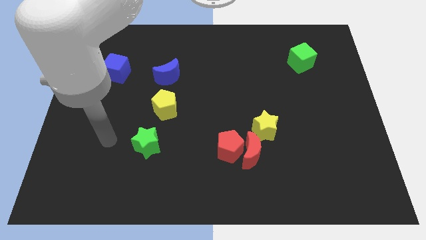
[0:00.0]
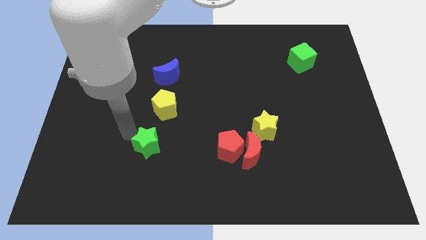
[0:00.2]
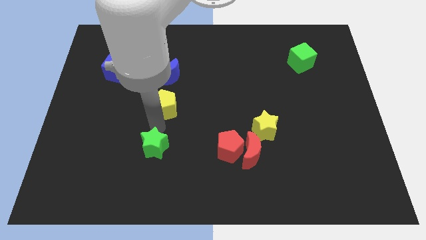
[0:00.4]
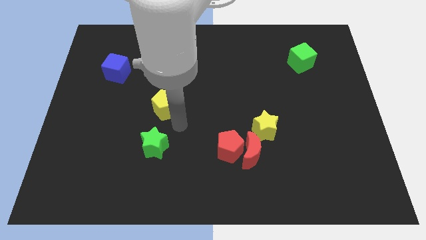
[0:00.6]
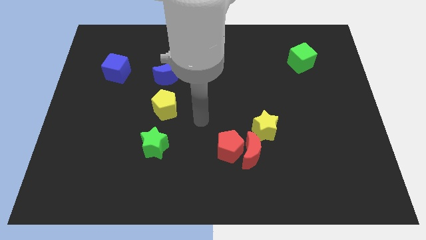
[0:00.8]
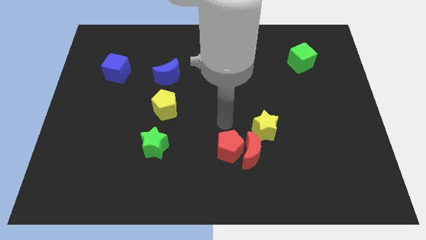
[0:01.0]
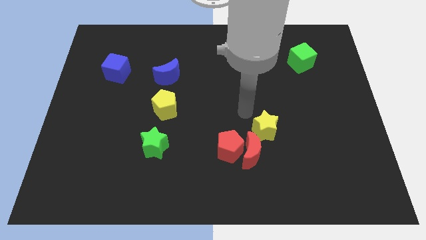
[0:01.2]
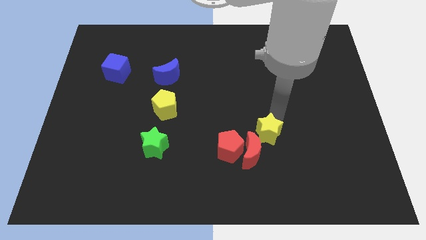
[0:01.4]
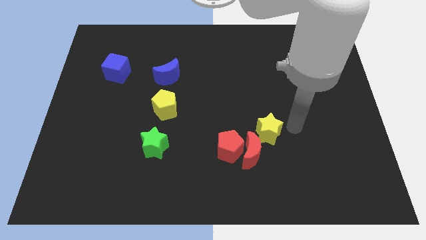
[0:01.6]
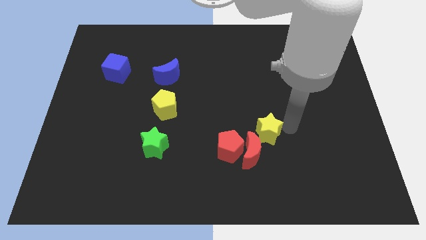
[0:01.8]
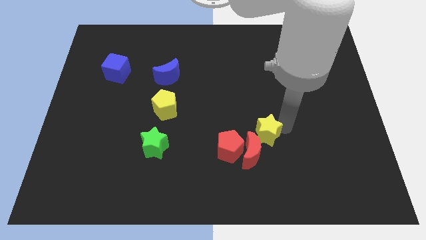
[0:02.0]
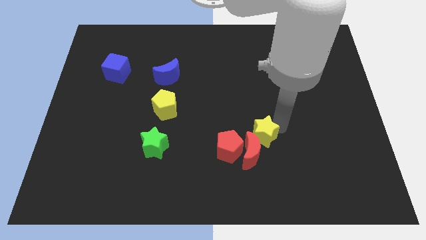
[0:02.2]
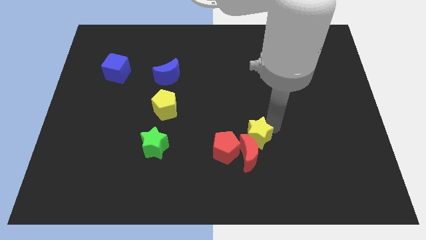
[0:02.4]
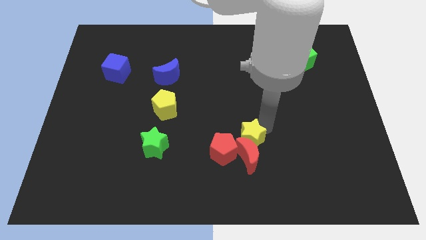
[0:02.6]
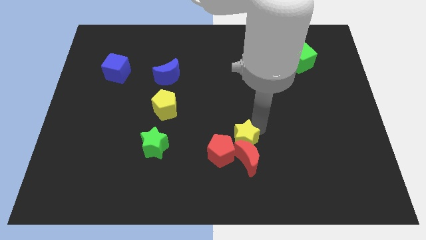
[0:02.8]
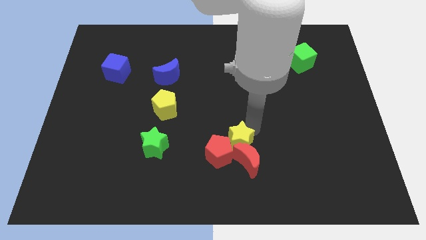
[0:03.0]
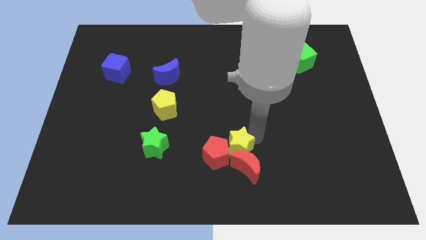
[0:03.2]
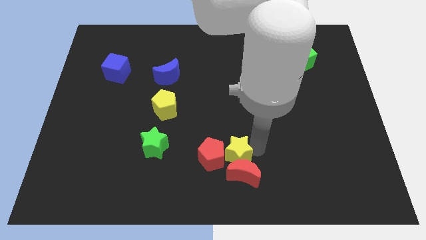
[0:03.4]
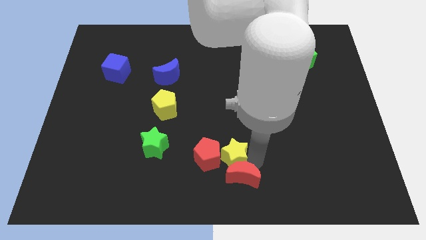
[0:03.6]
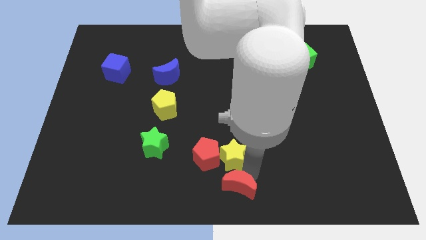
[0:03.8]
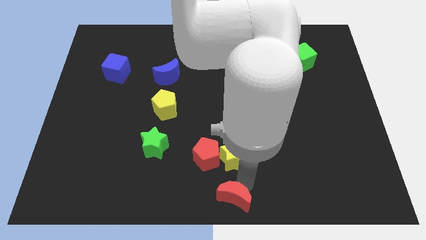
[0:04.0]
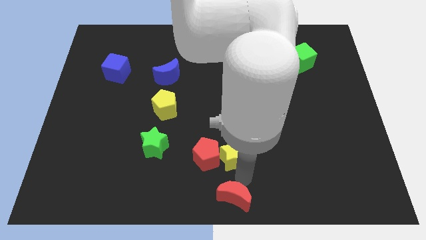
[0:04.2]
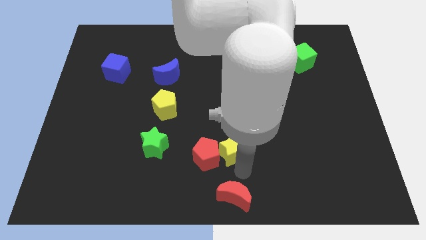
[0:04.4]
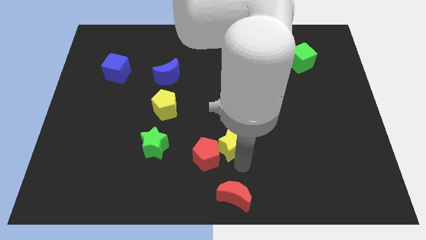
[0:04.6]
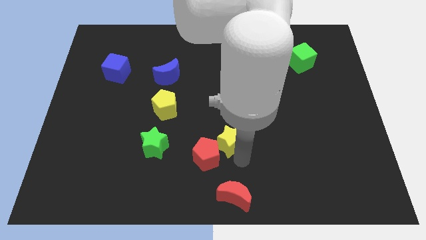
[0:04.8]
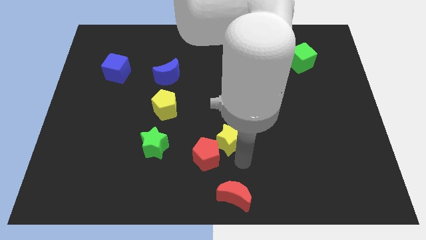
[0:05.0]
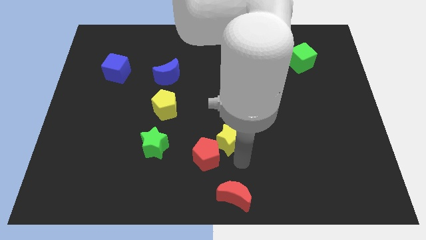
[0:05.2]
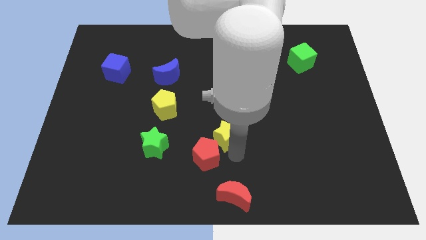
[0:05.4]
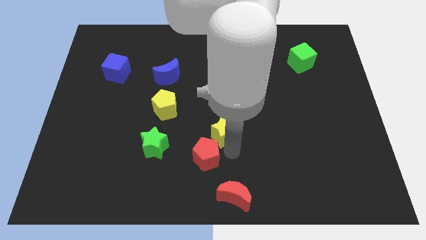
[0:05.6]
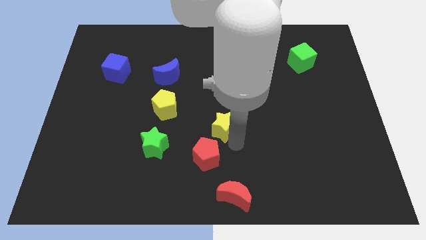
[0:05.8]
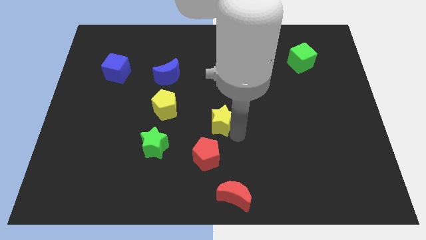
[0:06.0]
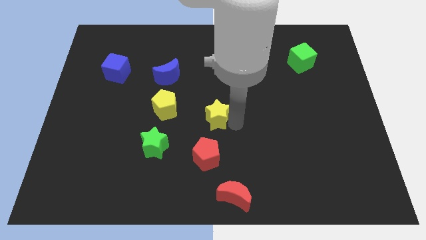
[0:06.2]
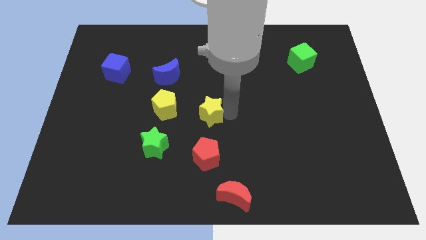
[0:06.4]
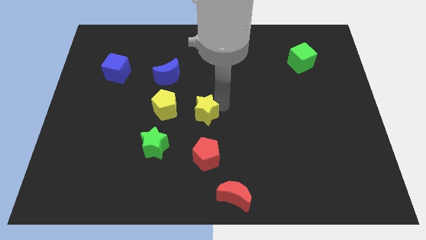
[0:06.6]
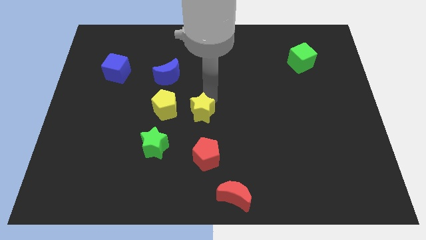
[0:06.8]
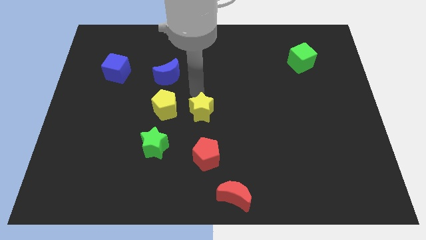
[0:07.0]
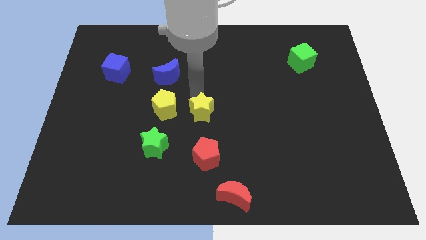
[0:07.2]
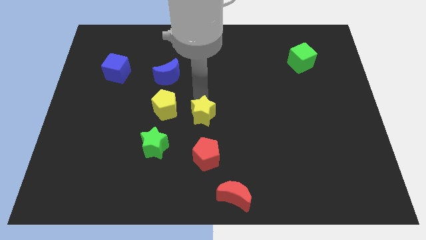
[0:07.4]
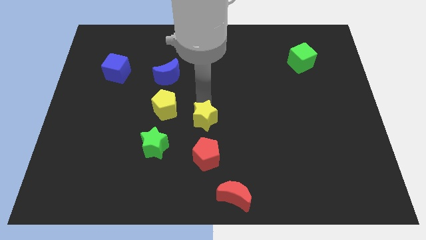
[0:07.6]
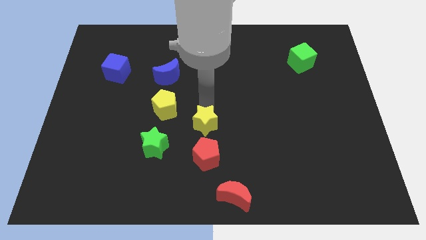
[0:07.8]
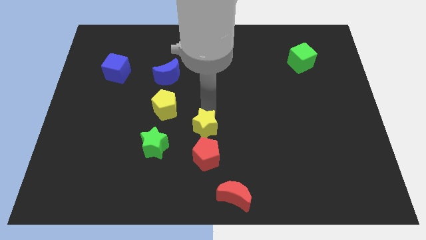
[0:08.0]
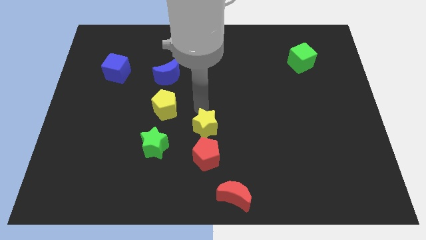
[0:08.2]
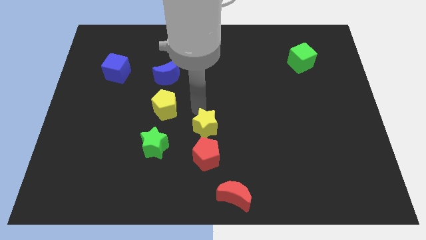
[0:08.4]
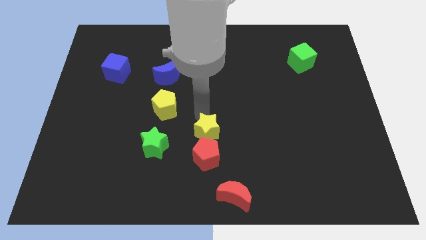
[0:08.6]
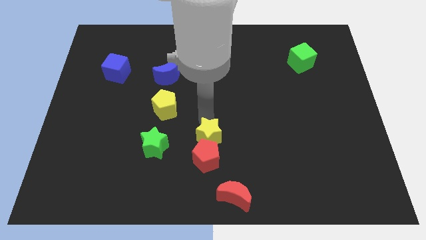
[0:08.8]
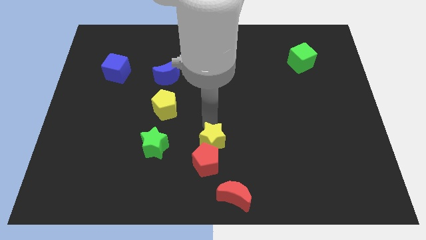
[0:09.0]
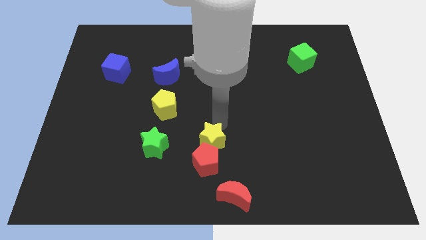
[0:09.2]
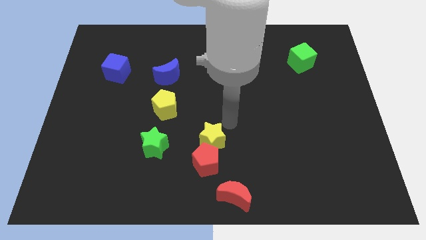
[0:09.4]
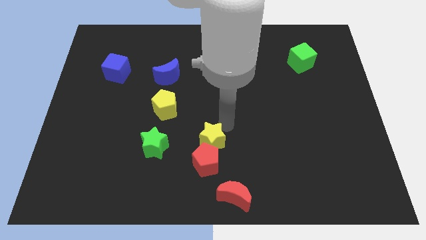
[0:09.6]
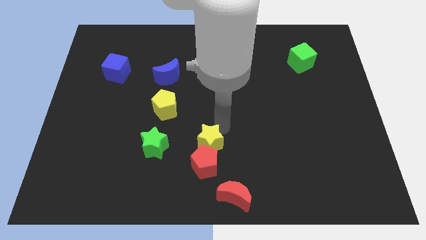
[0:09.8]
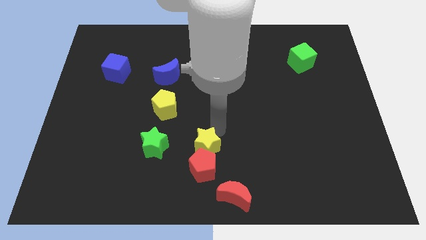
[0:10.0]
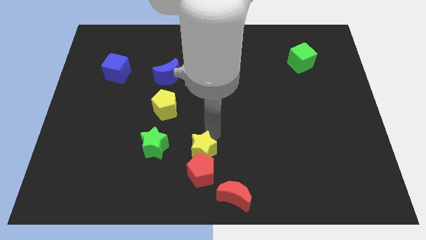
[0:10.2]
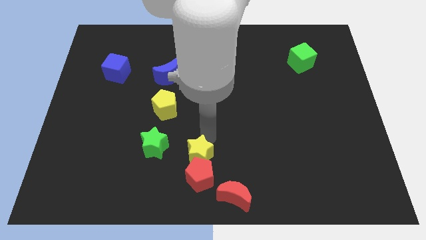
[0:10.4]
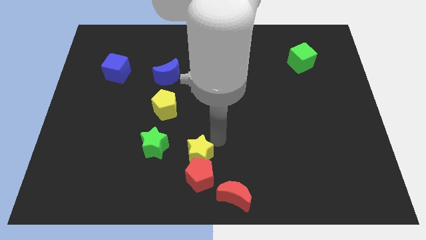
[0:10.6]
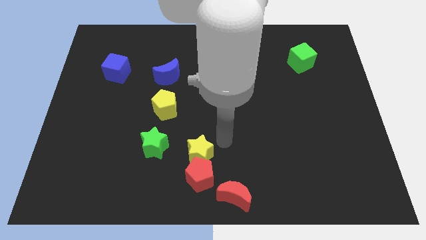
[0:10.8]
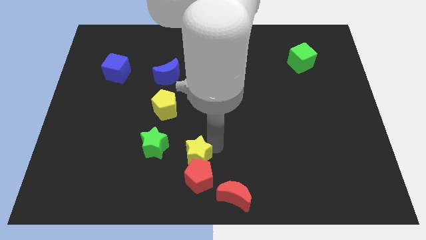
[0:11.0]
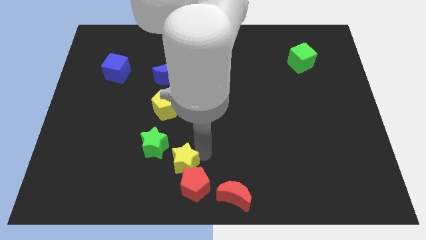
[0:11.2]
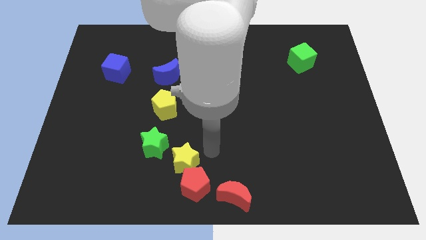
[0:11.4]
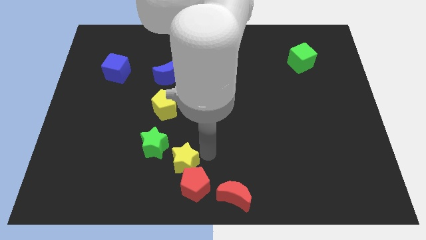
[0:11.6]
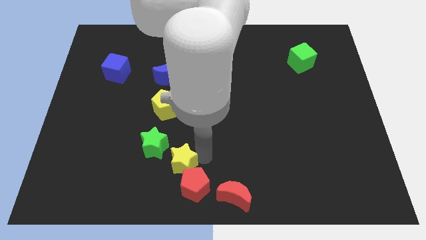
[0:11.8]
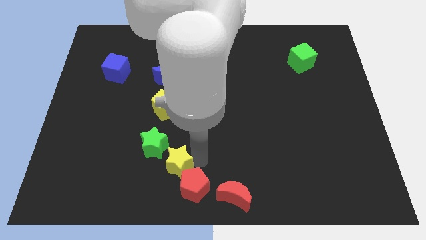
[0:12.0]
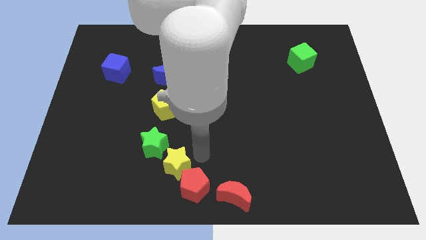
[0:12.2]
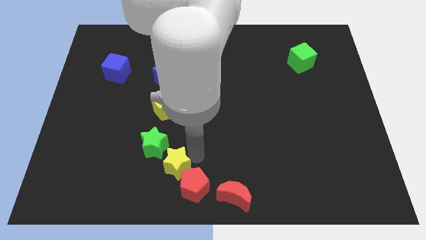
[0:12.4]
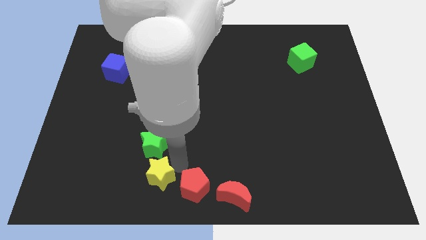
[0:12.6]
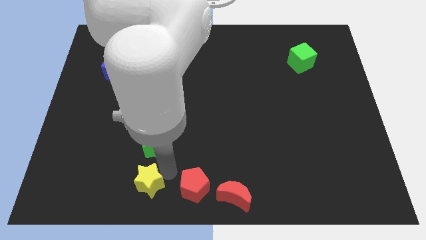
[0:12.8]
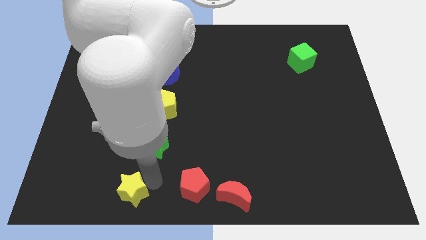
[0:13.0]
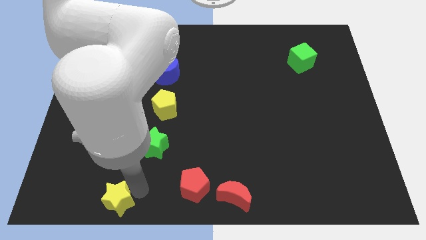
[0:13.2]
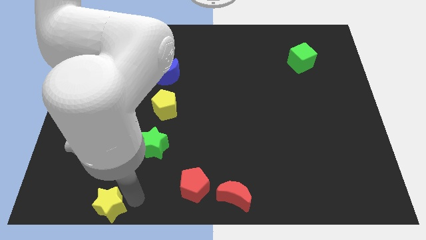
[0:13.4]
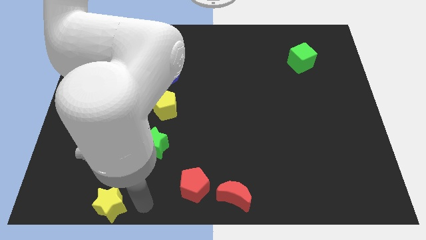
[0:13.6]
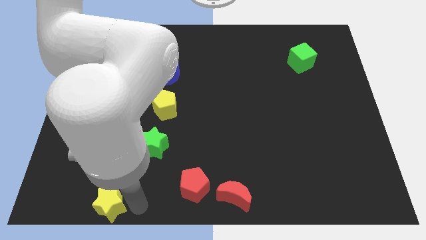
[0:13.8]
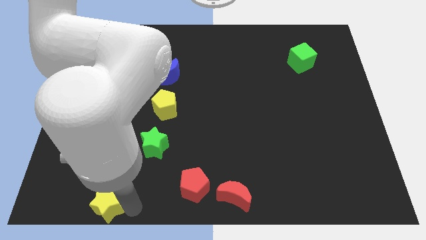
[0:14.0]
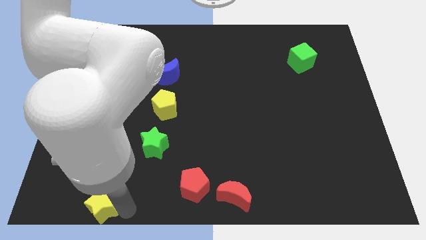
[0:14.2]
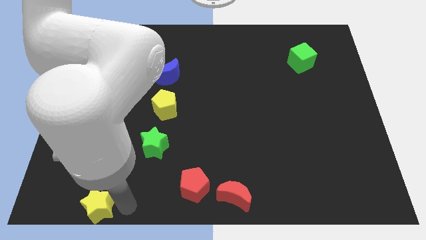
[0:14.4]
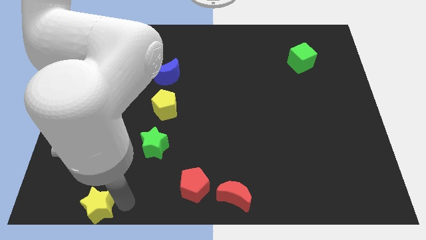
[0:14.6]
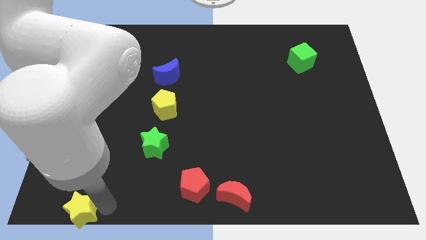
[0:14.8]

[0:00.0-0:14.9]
push the yellow star to the lower left corner
